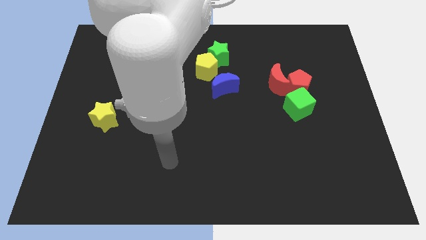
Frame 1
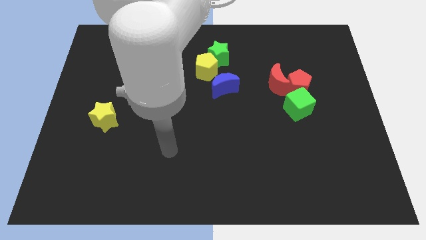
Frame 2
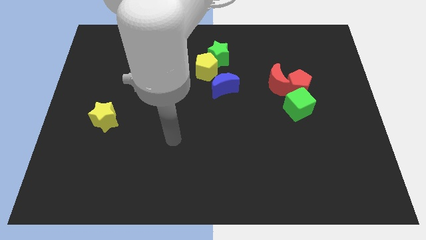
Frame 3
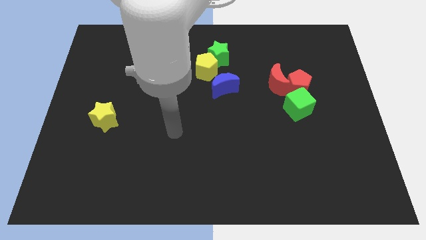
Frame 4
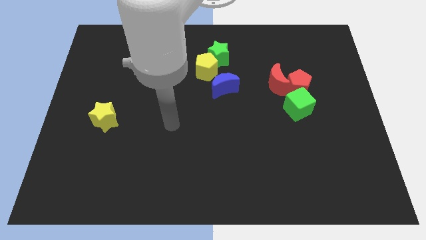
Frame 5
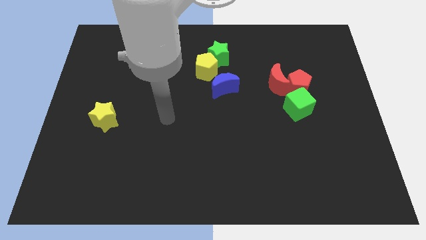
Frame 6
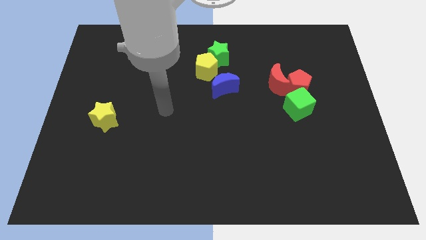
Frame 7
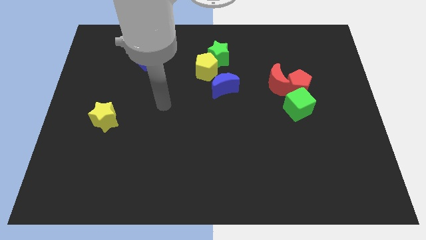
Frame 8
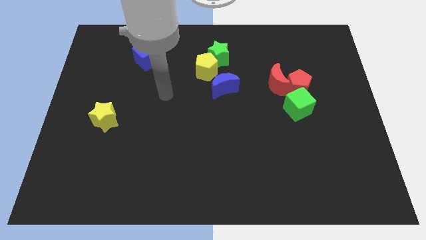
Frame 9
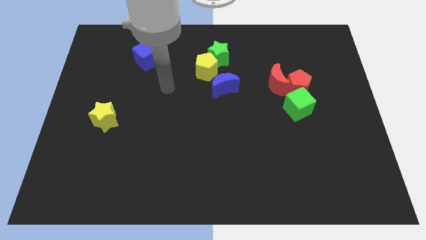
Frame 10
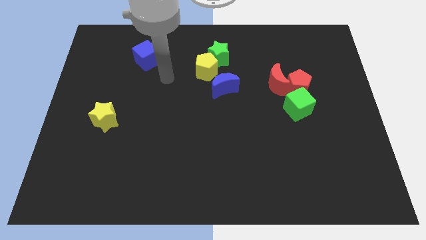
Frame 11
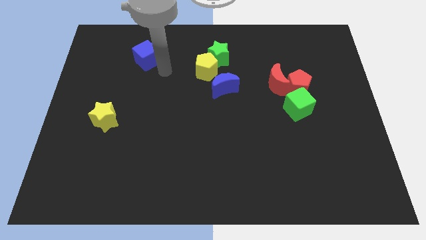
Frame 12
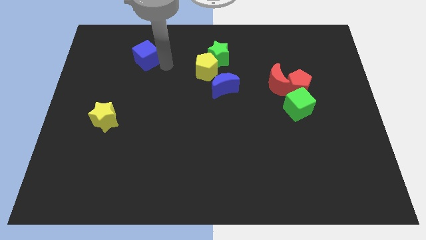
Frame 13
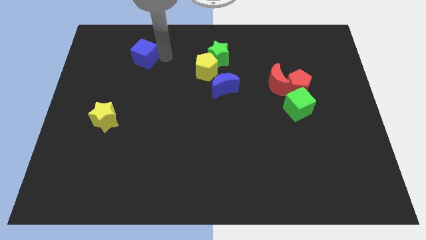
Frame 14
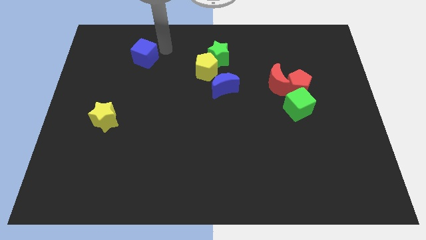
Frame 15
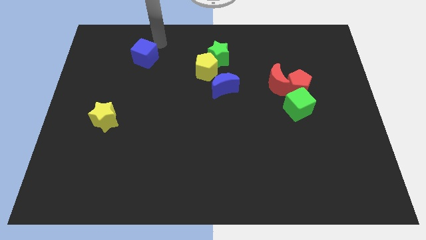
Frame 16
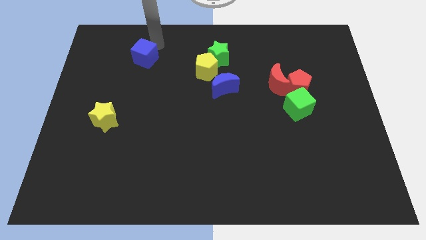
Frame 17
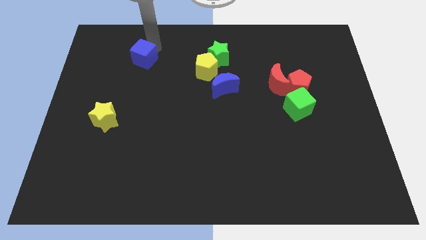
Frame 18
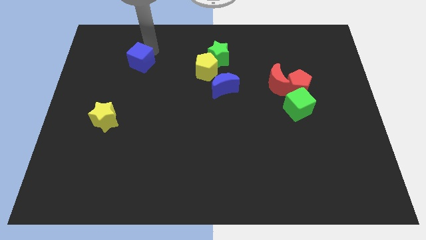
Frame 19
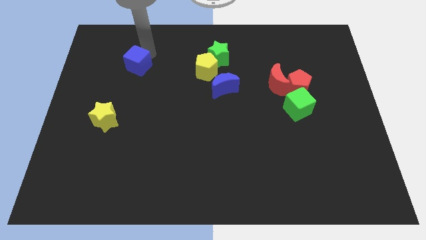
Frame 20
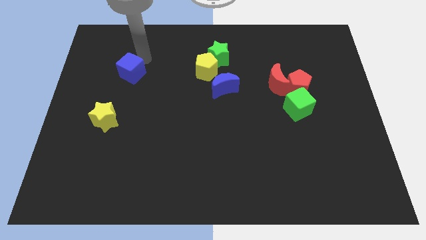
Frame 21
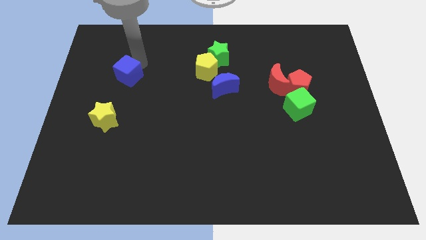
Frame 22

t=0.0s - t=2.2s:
push the blue cube to the top of the yellow star

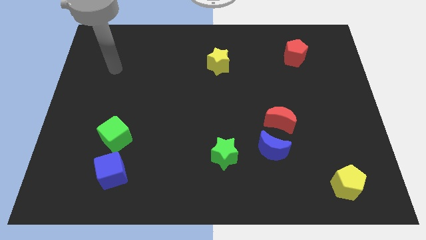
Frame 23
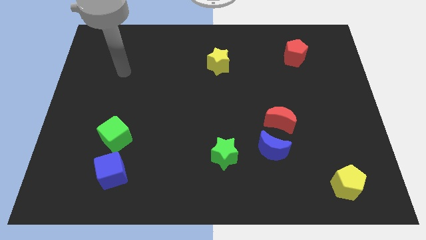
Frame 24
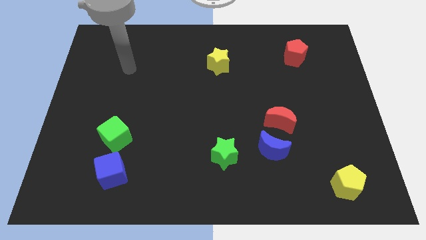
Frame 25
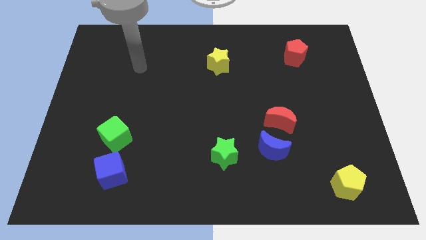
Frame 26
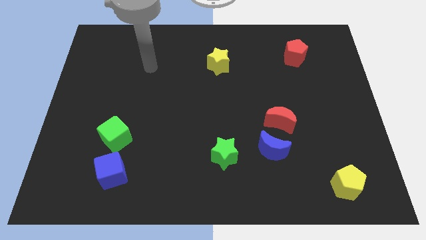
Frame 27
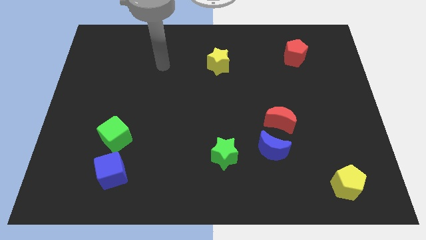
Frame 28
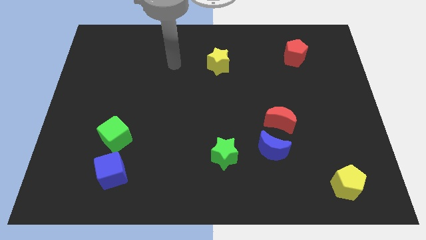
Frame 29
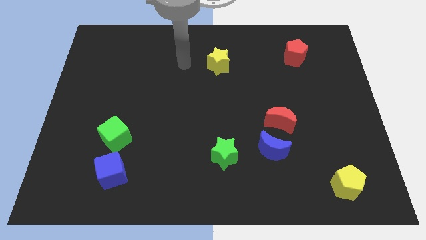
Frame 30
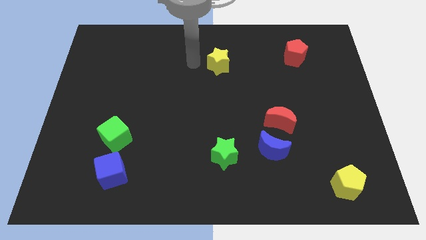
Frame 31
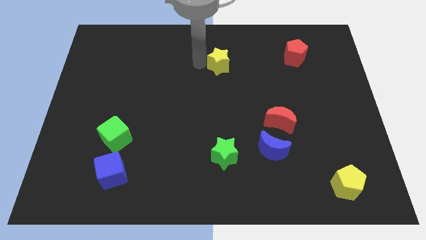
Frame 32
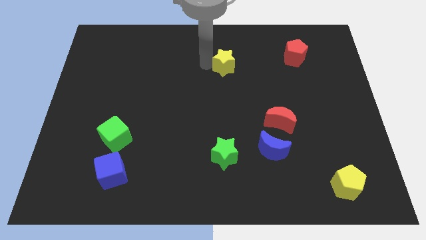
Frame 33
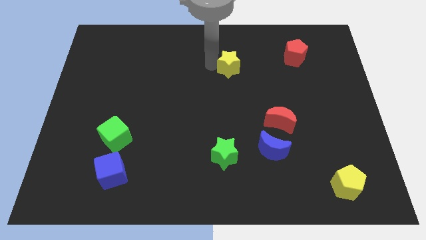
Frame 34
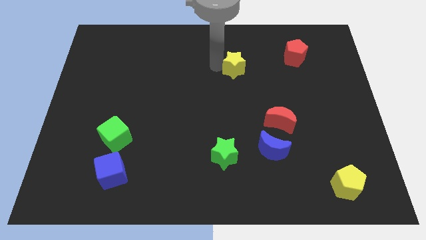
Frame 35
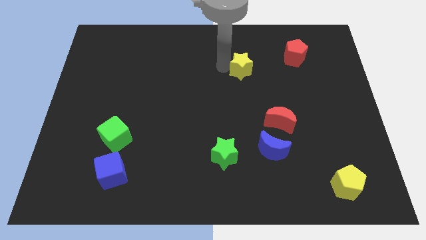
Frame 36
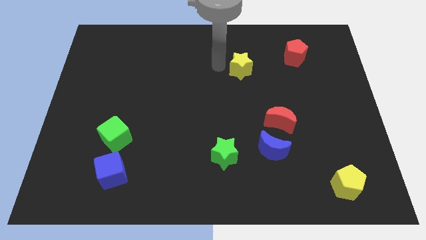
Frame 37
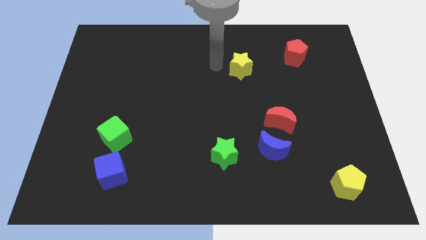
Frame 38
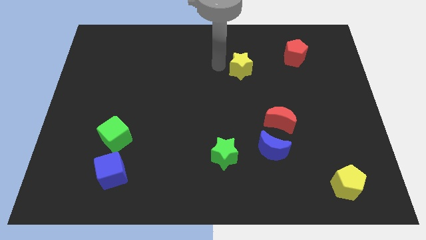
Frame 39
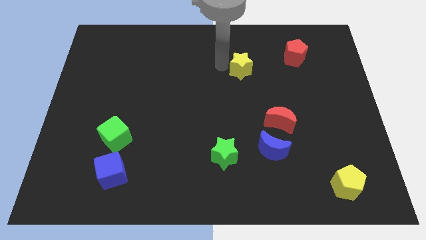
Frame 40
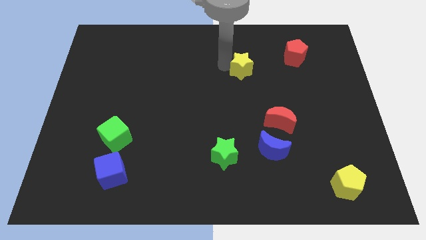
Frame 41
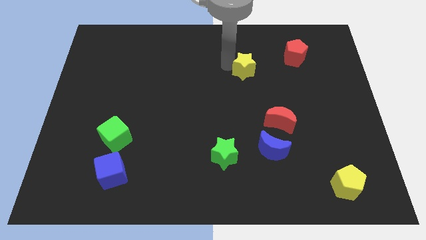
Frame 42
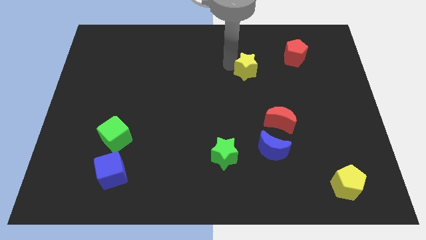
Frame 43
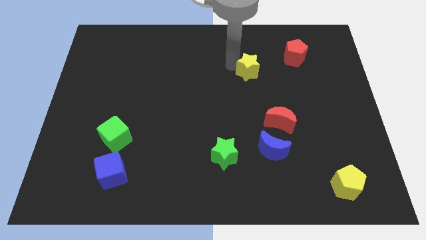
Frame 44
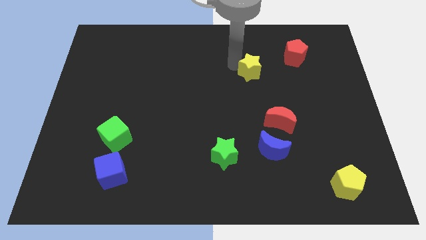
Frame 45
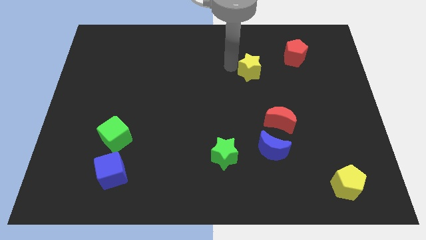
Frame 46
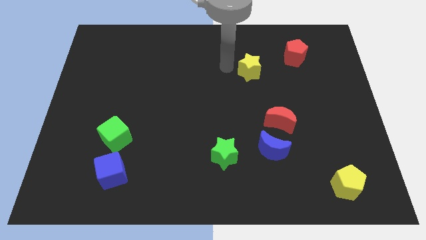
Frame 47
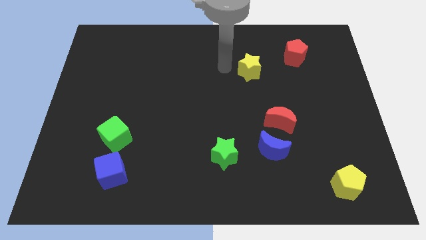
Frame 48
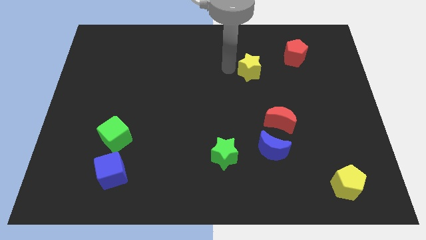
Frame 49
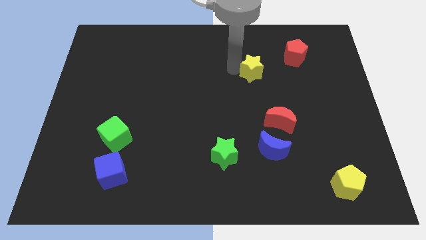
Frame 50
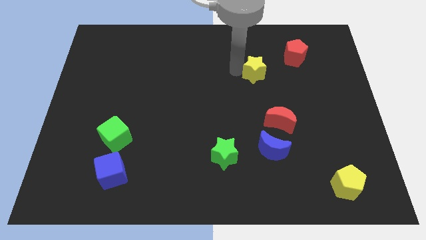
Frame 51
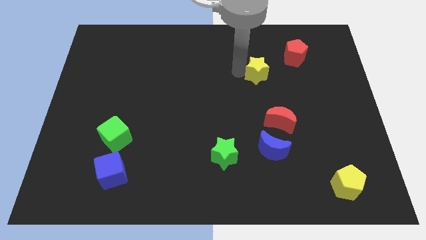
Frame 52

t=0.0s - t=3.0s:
put the yellow star to the bottom left of the red pentagon

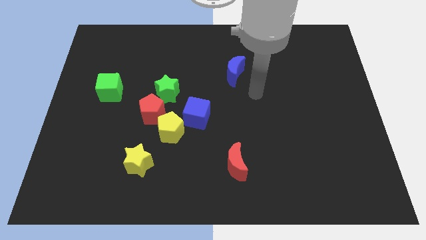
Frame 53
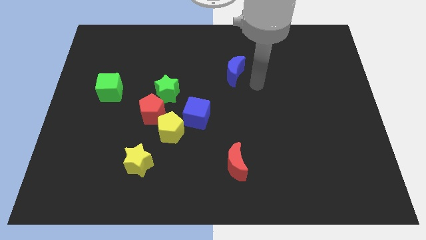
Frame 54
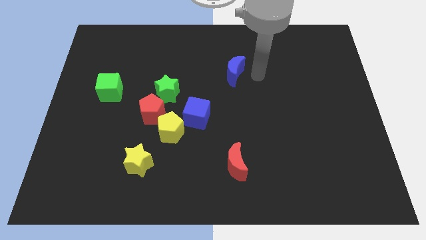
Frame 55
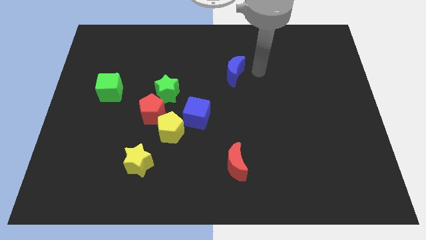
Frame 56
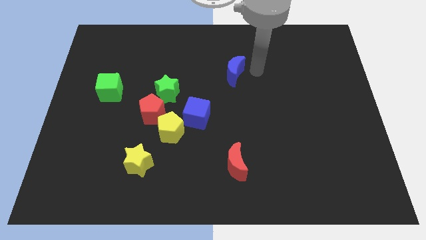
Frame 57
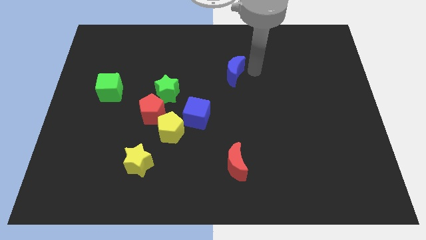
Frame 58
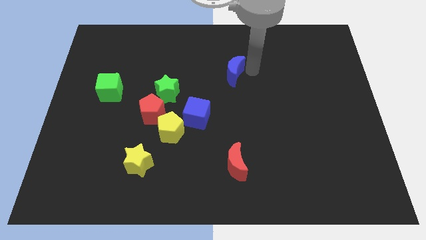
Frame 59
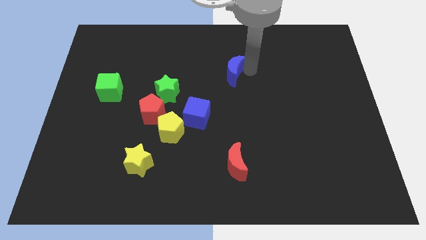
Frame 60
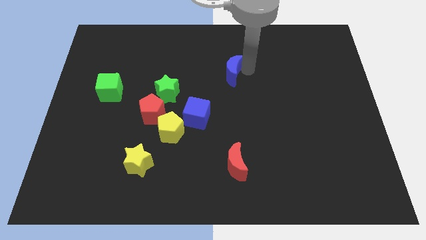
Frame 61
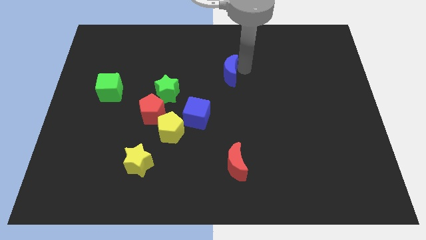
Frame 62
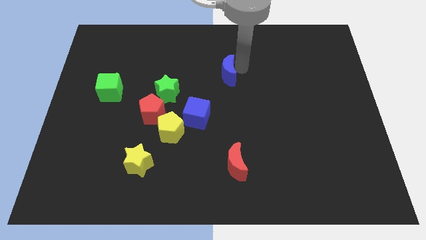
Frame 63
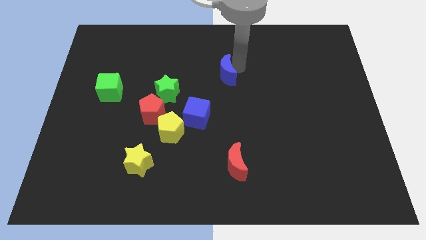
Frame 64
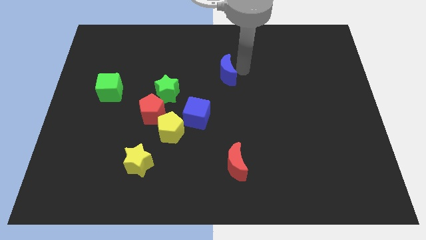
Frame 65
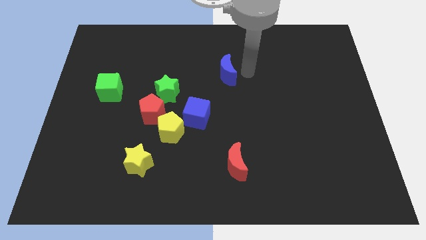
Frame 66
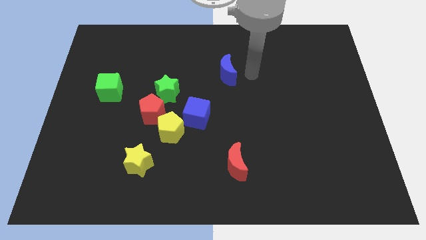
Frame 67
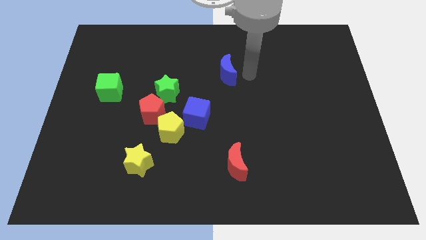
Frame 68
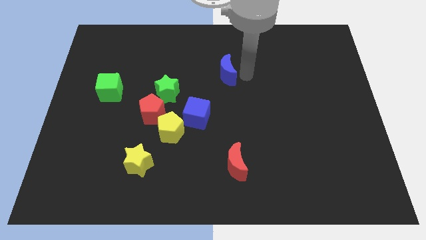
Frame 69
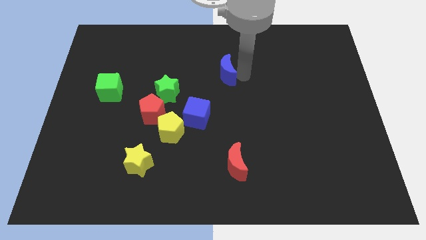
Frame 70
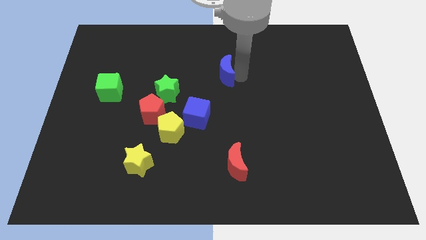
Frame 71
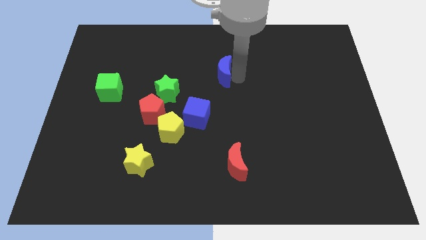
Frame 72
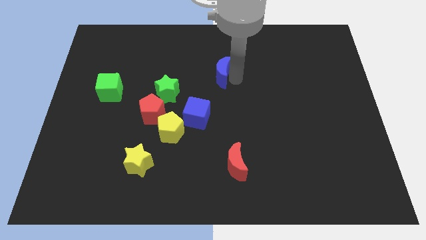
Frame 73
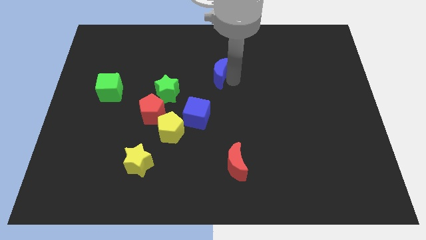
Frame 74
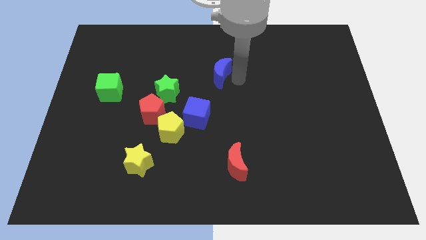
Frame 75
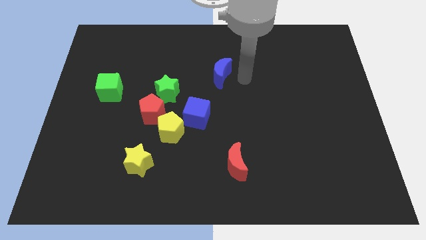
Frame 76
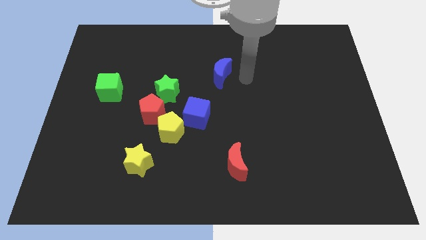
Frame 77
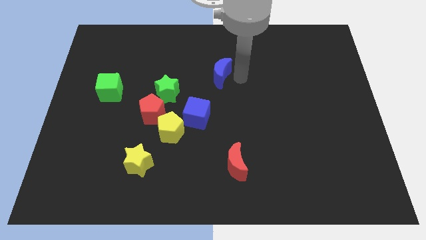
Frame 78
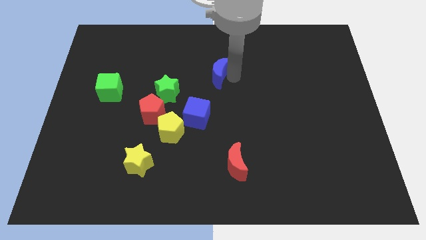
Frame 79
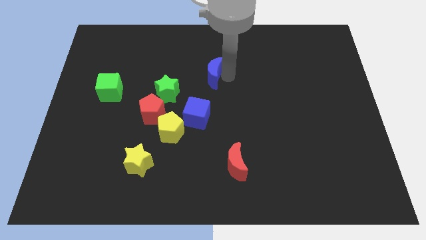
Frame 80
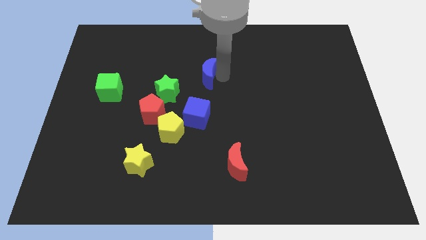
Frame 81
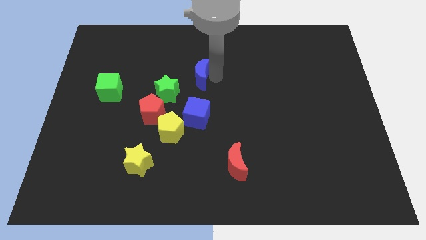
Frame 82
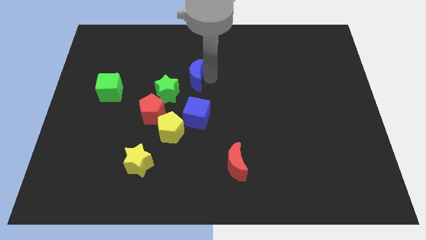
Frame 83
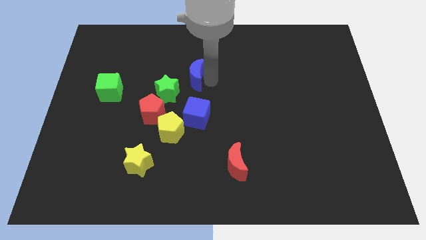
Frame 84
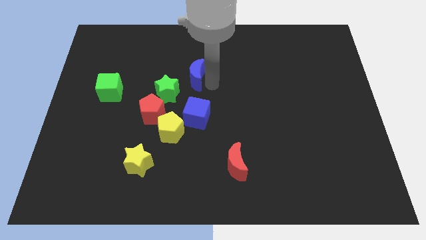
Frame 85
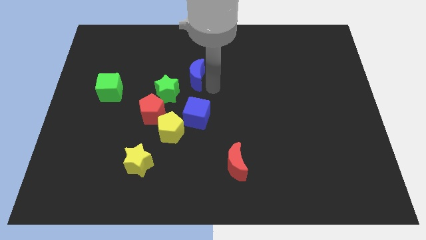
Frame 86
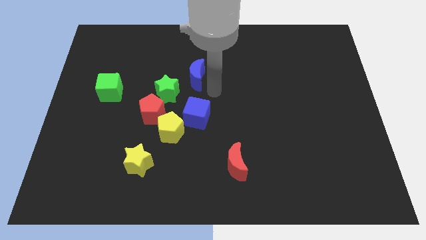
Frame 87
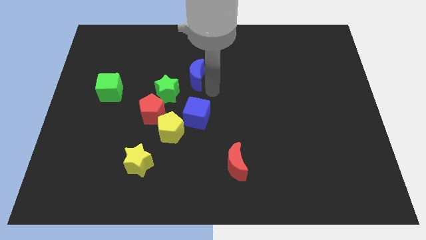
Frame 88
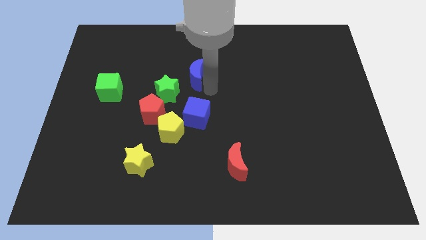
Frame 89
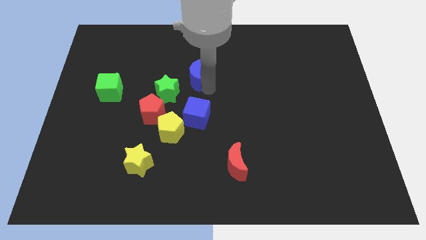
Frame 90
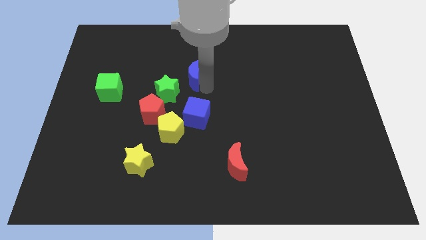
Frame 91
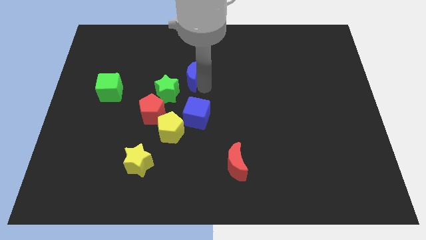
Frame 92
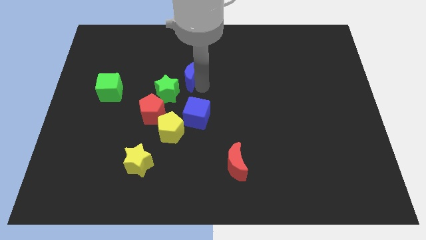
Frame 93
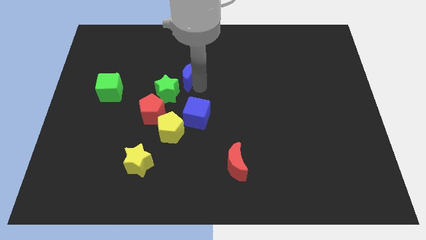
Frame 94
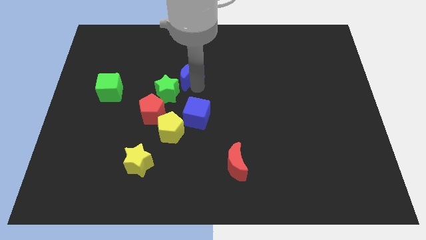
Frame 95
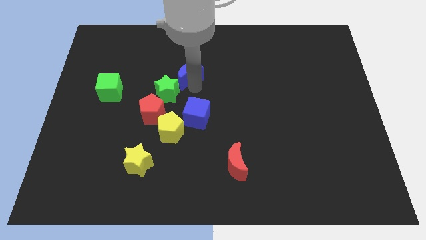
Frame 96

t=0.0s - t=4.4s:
move the blue moon to the top of the green star
